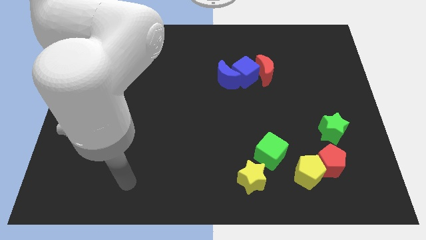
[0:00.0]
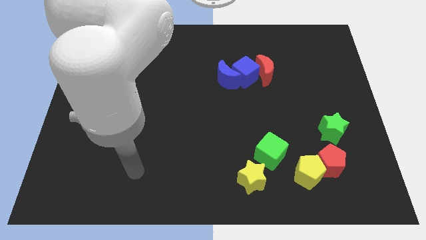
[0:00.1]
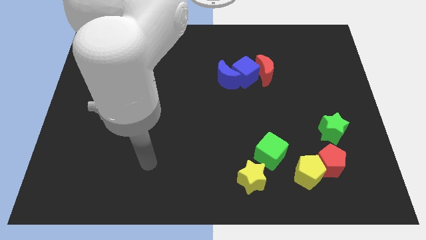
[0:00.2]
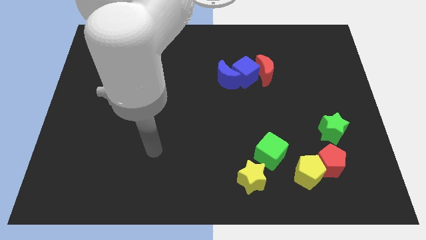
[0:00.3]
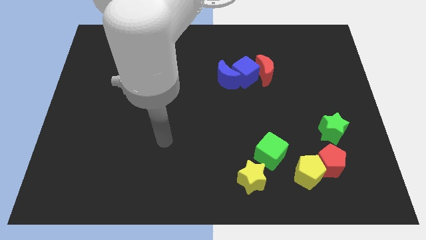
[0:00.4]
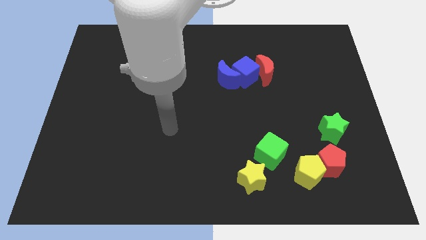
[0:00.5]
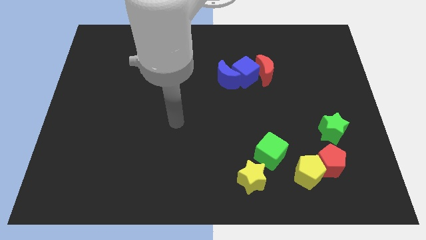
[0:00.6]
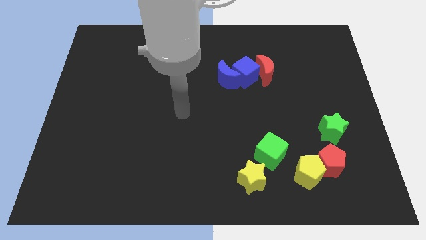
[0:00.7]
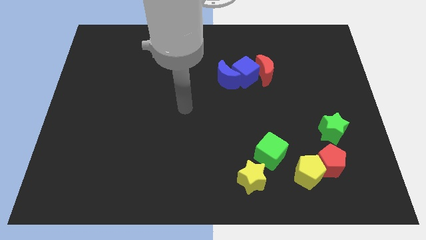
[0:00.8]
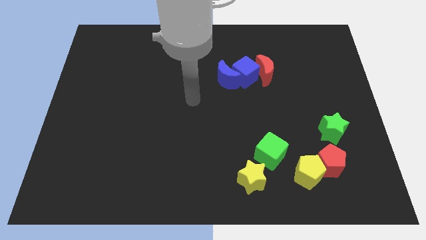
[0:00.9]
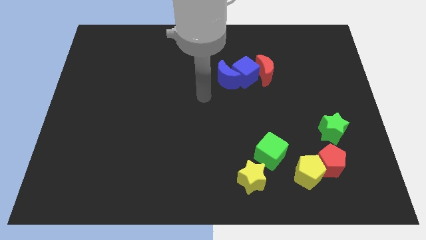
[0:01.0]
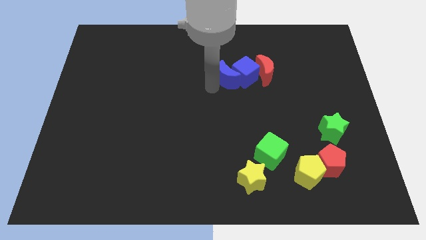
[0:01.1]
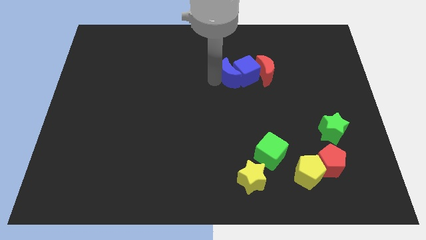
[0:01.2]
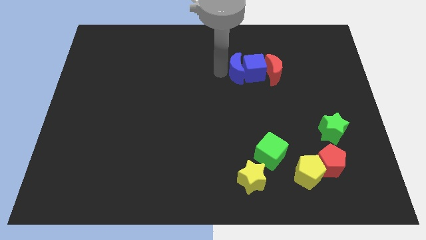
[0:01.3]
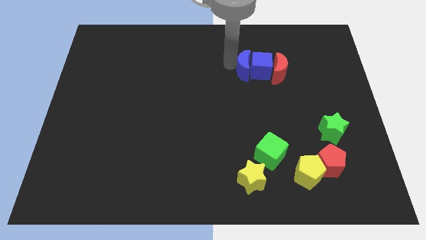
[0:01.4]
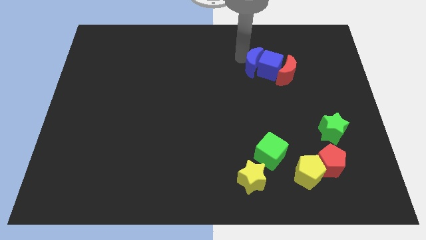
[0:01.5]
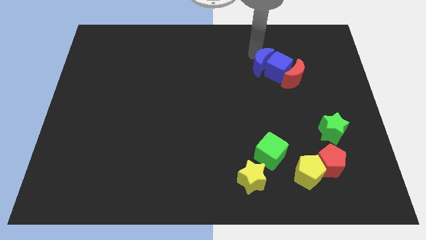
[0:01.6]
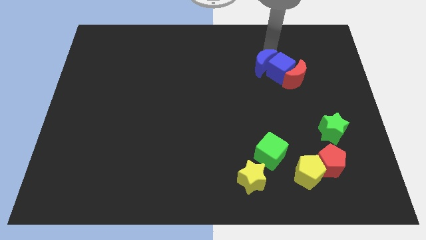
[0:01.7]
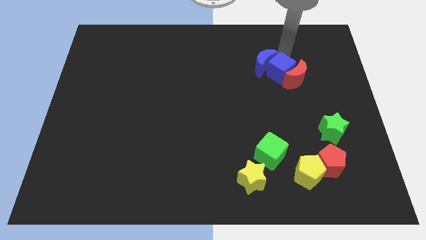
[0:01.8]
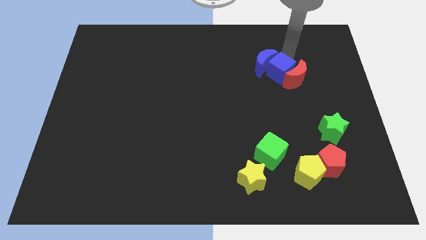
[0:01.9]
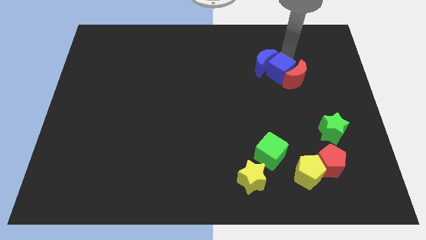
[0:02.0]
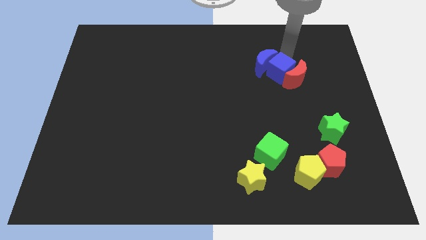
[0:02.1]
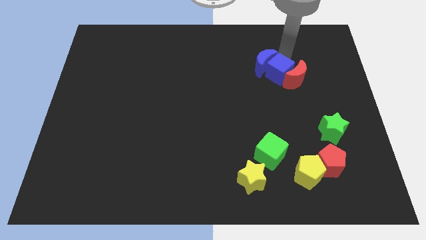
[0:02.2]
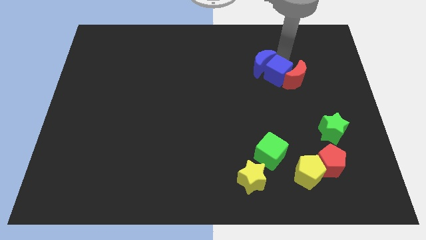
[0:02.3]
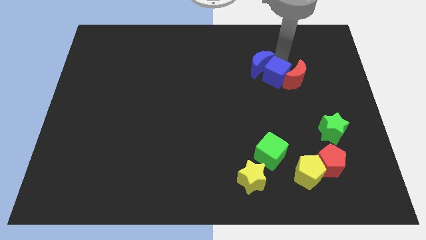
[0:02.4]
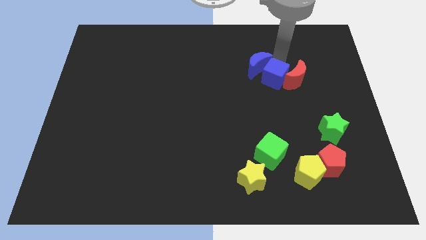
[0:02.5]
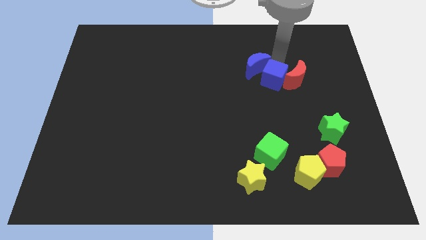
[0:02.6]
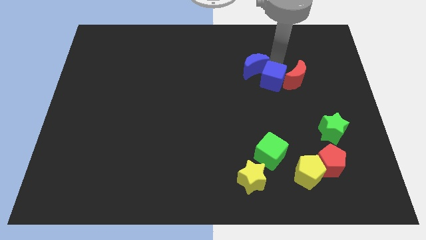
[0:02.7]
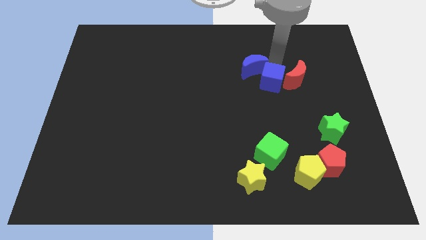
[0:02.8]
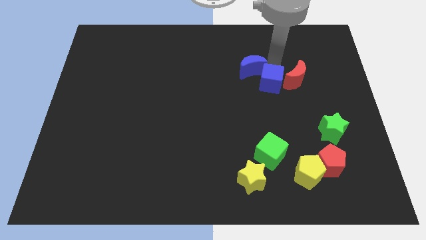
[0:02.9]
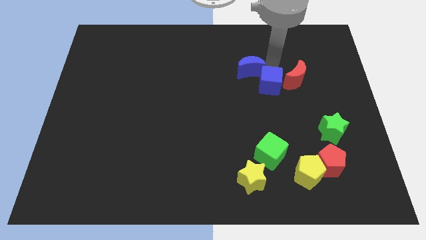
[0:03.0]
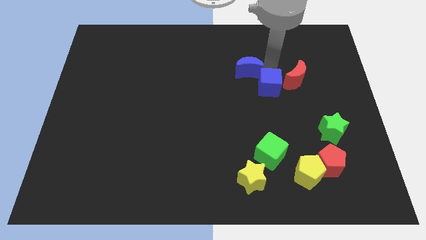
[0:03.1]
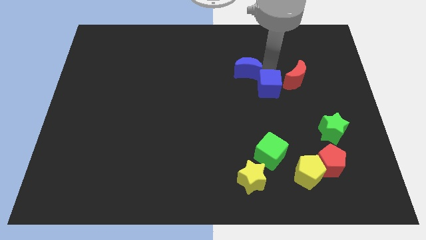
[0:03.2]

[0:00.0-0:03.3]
move the blue cube down and then to the right a little bit

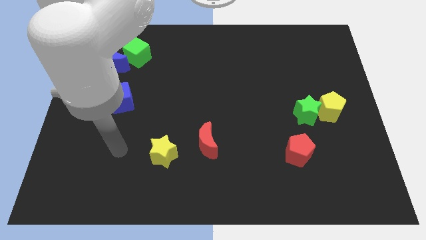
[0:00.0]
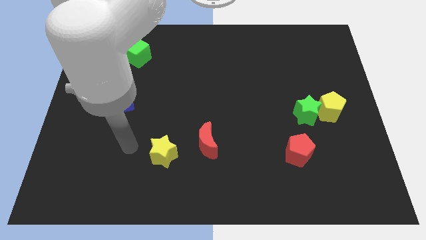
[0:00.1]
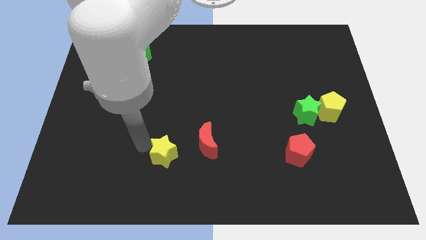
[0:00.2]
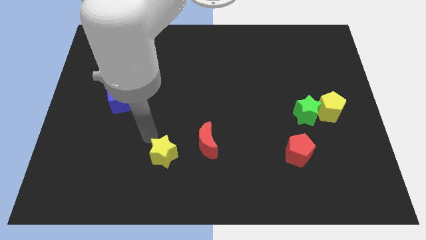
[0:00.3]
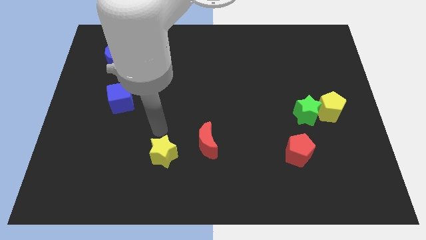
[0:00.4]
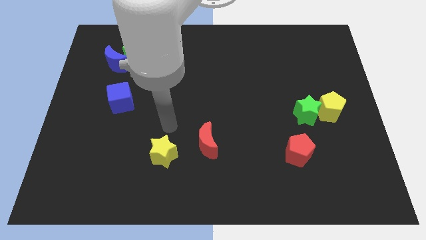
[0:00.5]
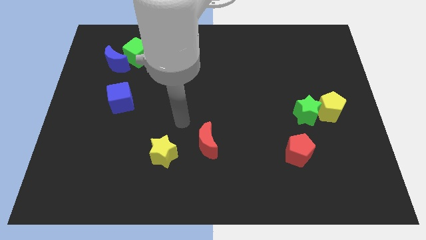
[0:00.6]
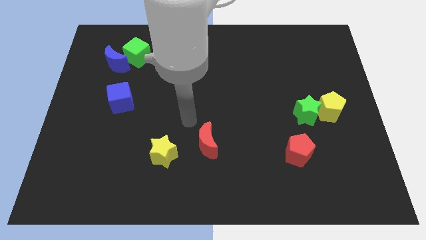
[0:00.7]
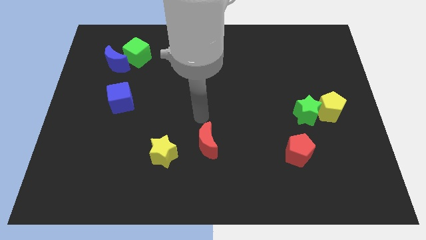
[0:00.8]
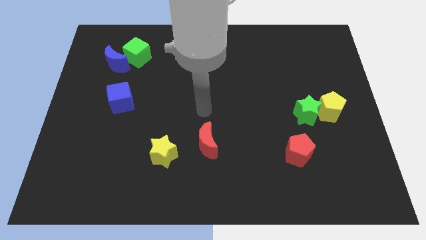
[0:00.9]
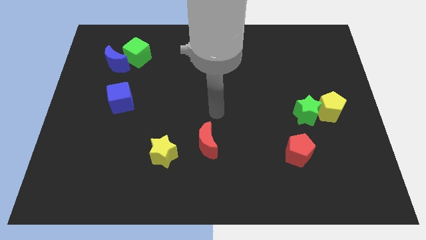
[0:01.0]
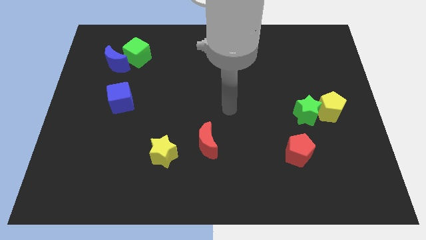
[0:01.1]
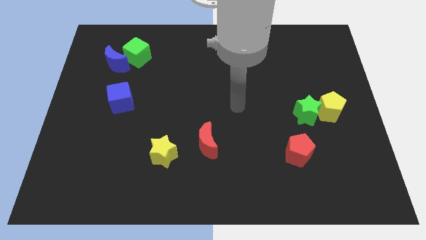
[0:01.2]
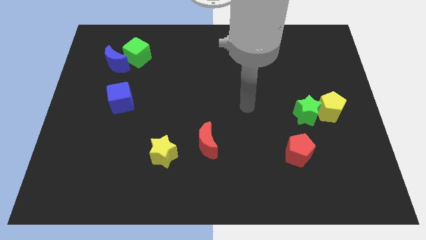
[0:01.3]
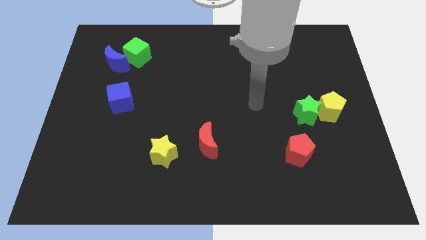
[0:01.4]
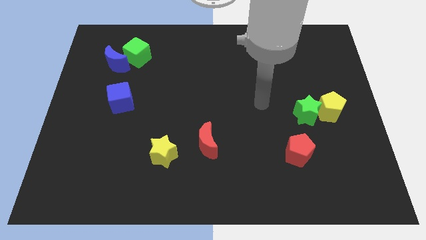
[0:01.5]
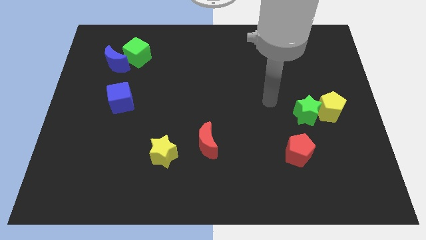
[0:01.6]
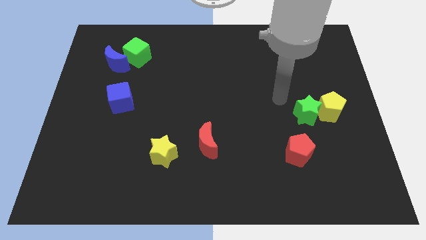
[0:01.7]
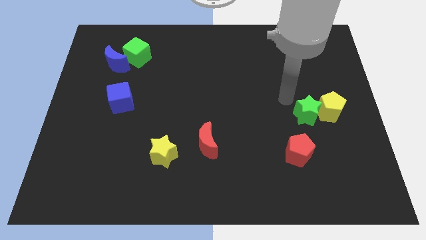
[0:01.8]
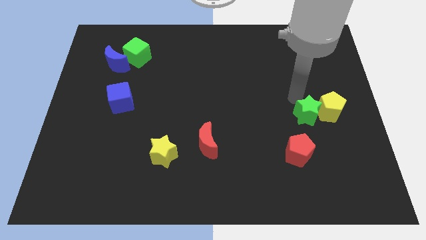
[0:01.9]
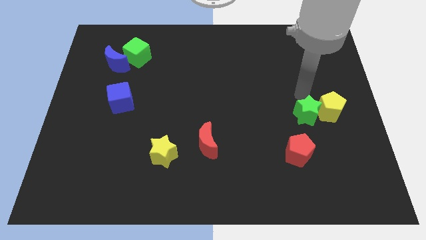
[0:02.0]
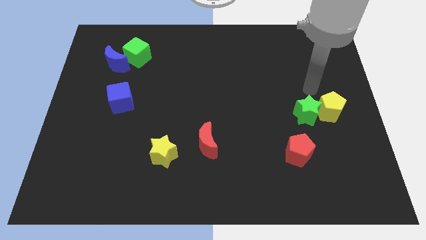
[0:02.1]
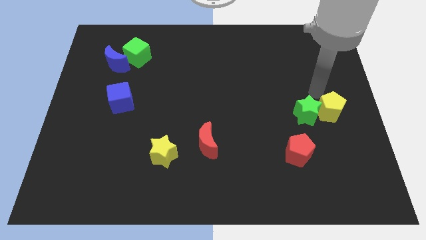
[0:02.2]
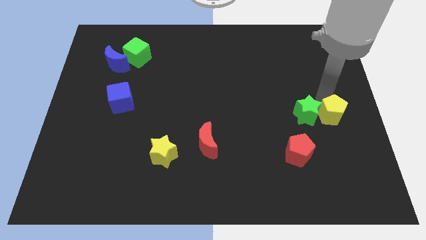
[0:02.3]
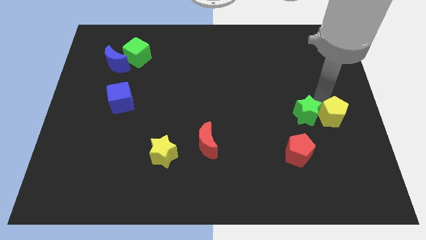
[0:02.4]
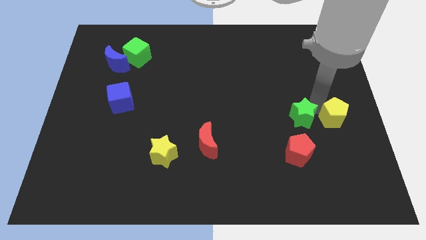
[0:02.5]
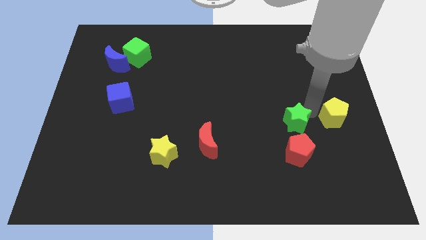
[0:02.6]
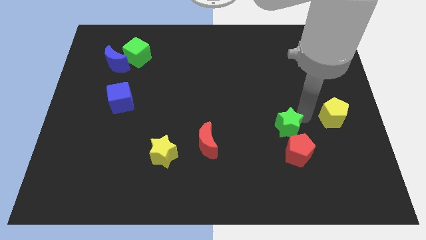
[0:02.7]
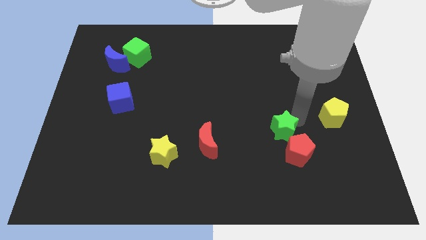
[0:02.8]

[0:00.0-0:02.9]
slide the green star down and left a little bit

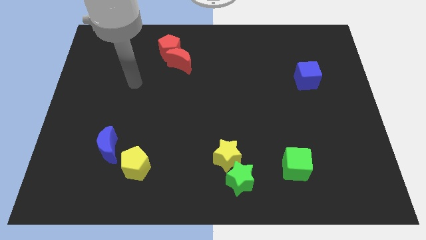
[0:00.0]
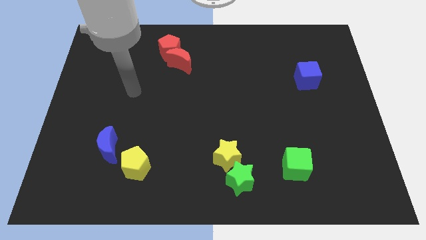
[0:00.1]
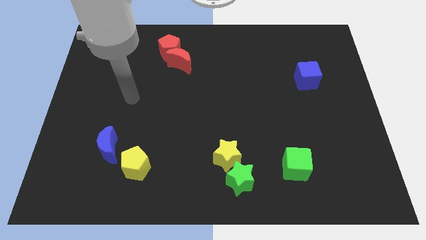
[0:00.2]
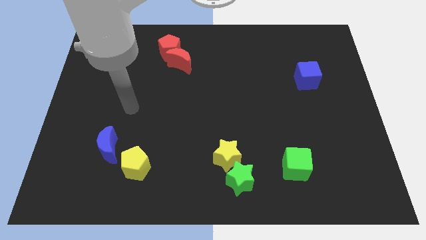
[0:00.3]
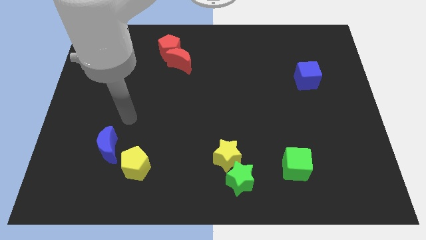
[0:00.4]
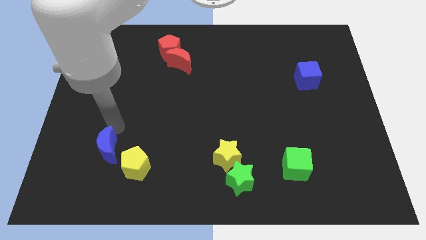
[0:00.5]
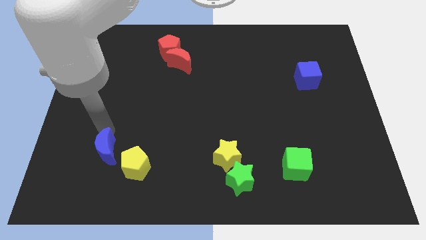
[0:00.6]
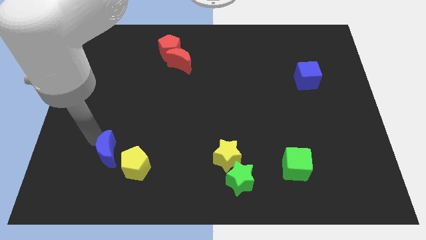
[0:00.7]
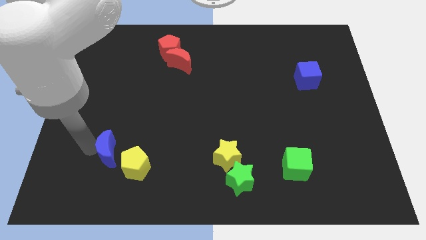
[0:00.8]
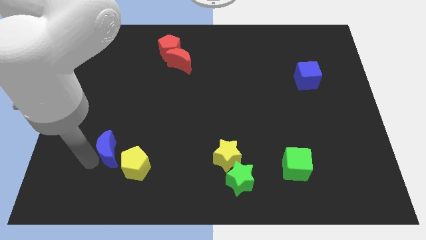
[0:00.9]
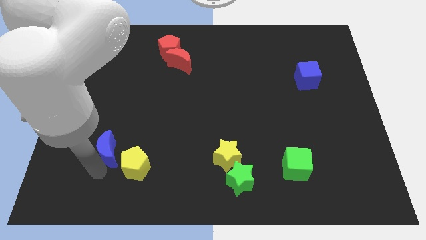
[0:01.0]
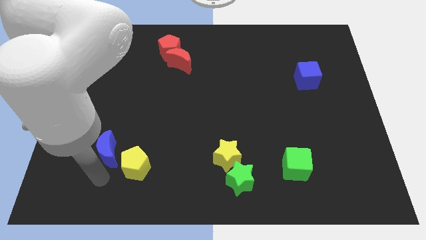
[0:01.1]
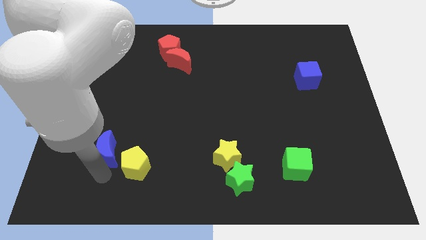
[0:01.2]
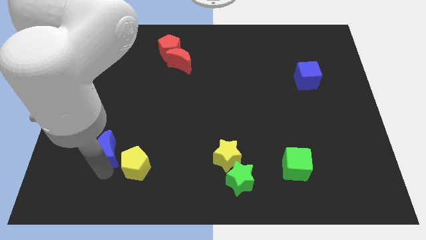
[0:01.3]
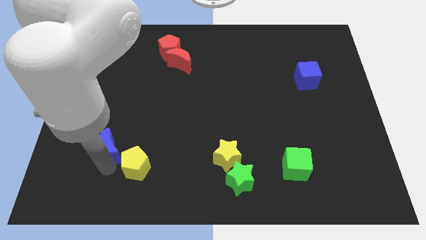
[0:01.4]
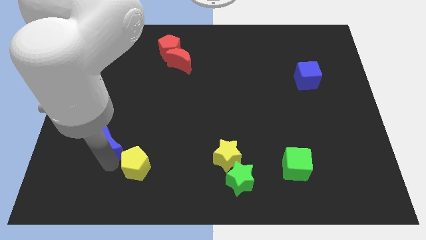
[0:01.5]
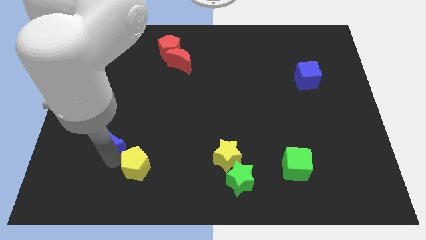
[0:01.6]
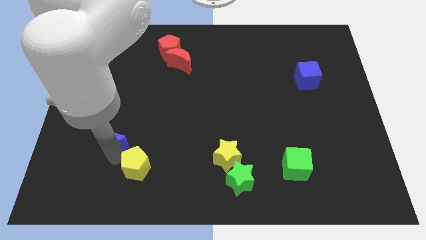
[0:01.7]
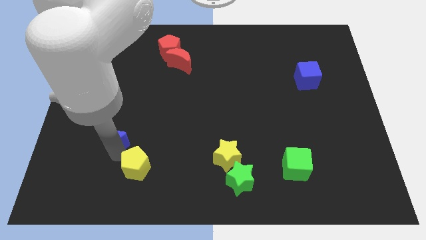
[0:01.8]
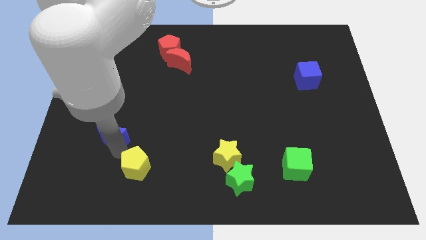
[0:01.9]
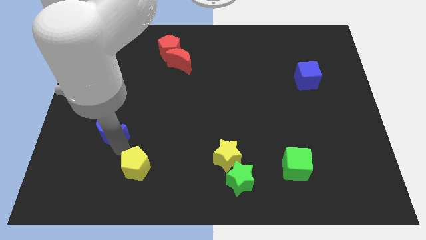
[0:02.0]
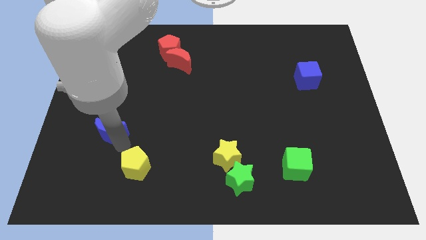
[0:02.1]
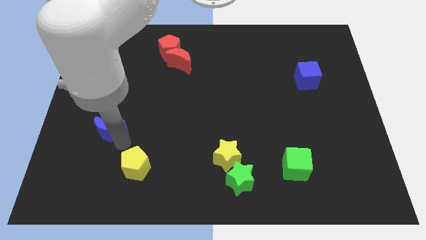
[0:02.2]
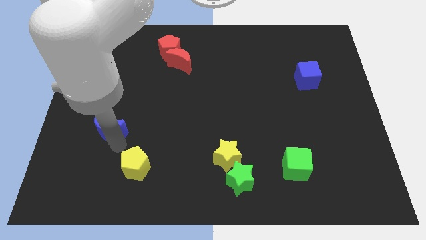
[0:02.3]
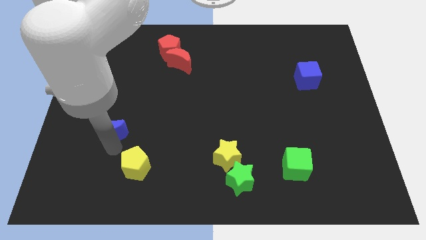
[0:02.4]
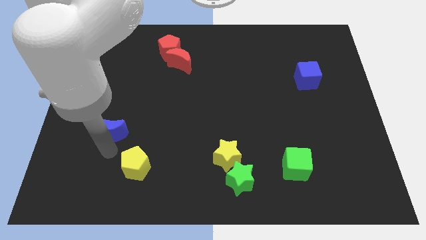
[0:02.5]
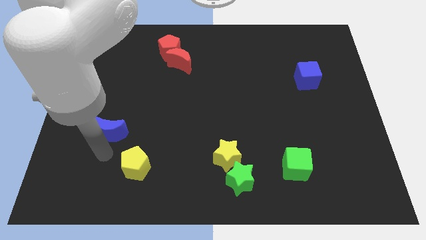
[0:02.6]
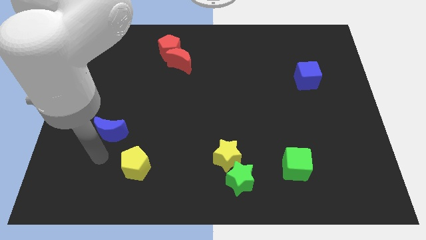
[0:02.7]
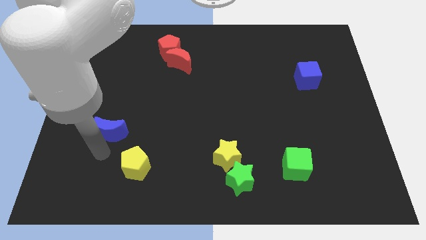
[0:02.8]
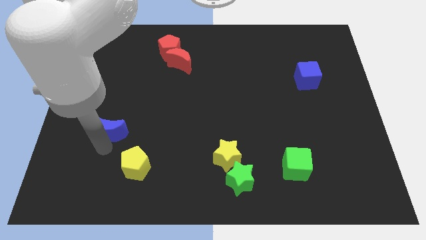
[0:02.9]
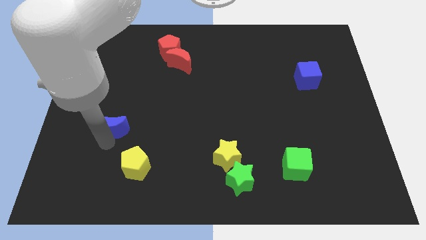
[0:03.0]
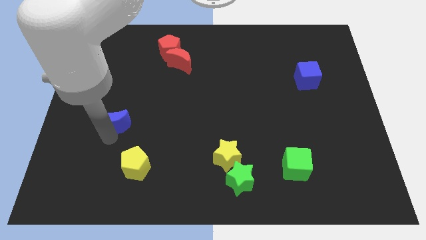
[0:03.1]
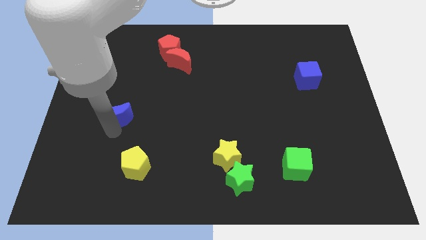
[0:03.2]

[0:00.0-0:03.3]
slightly slide the blue moon up
